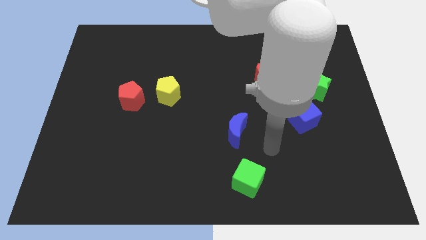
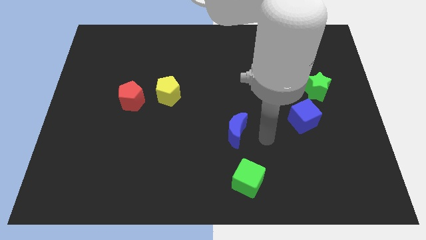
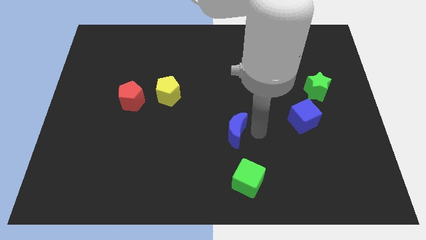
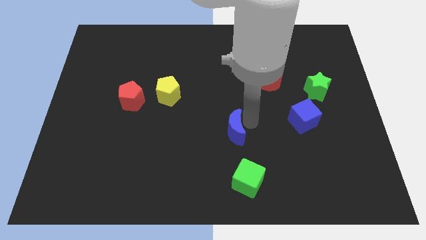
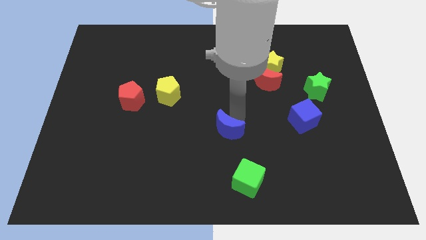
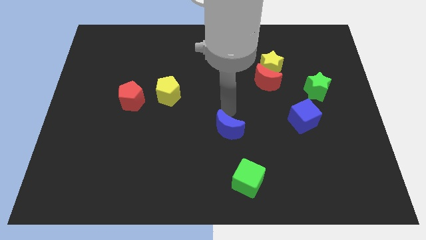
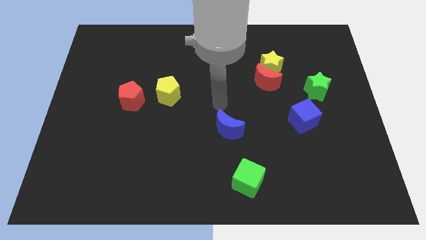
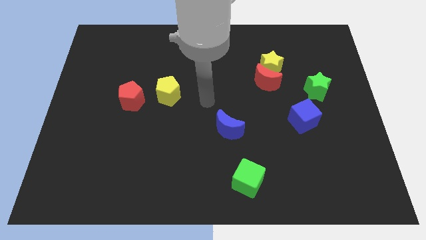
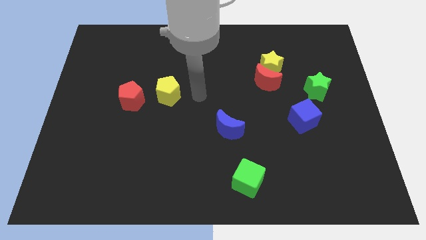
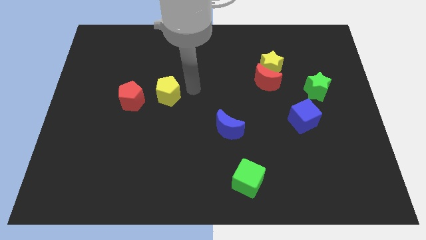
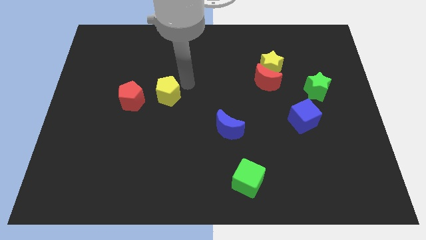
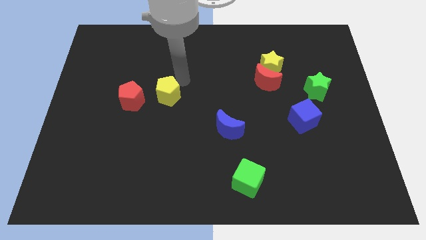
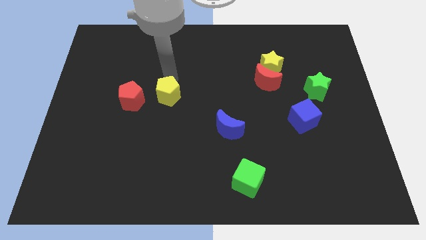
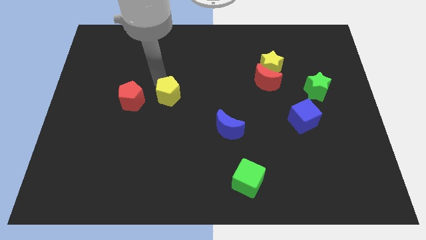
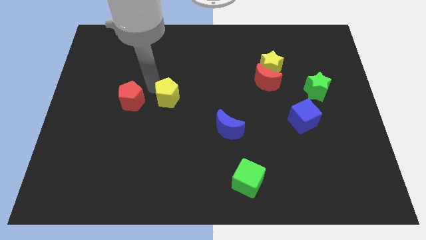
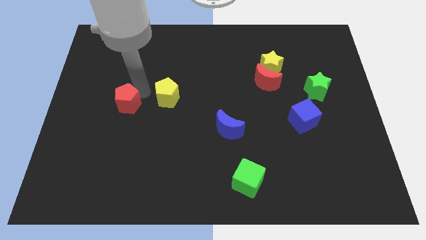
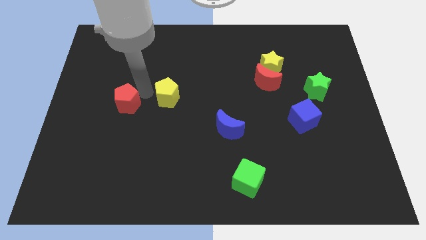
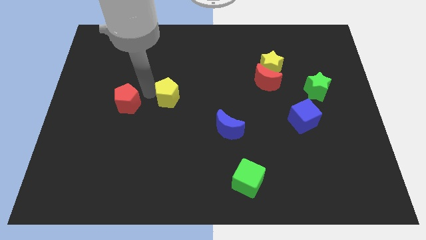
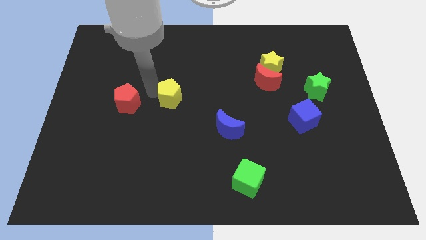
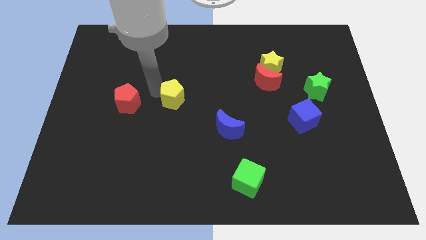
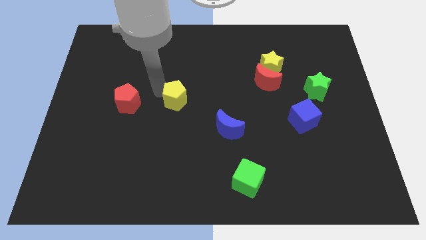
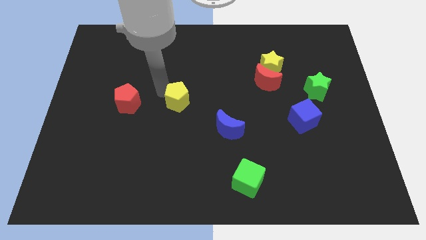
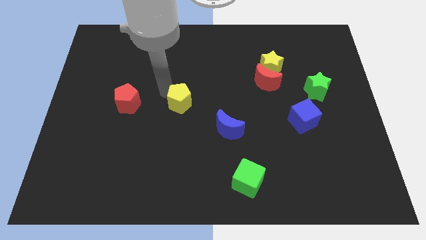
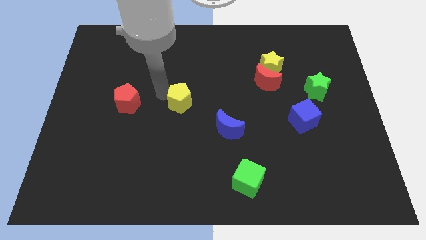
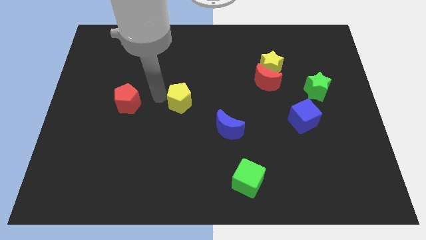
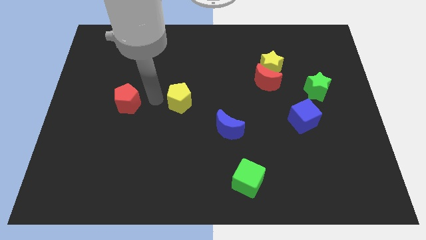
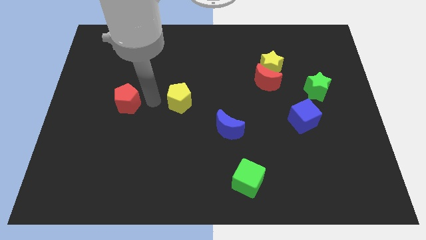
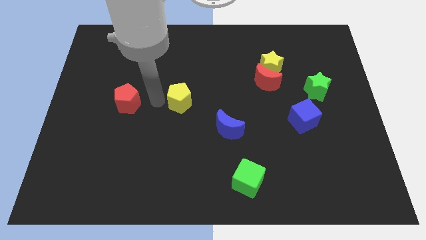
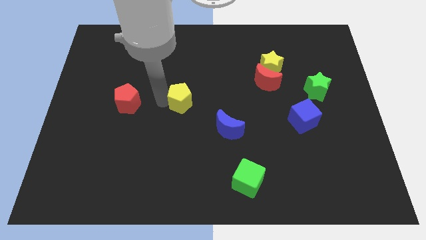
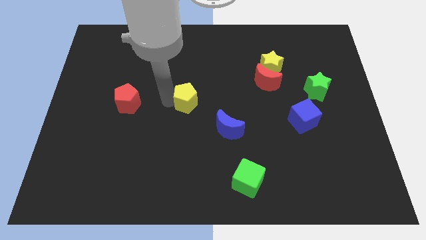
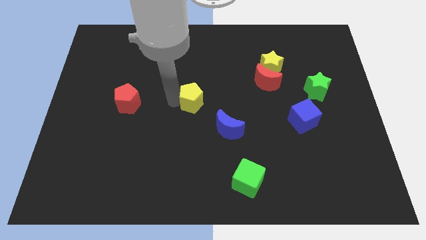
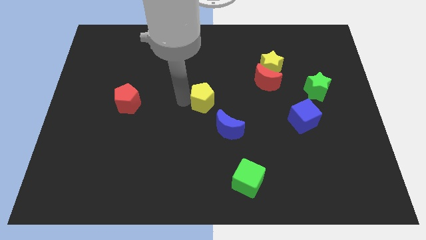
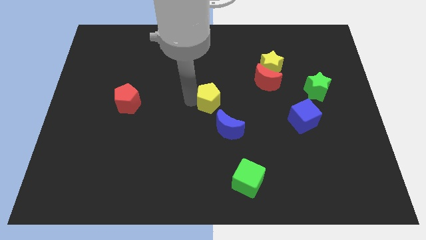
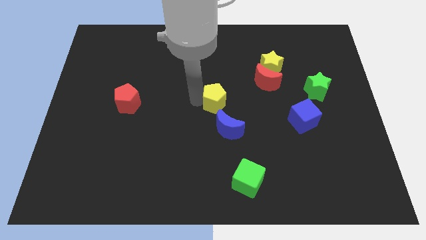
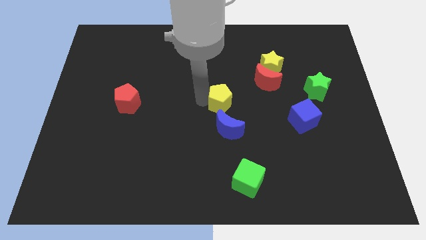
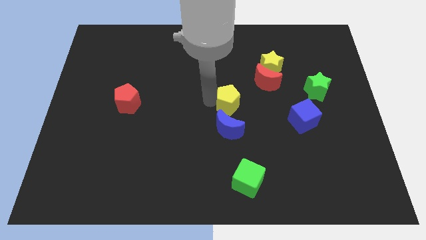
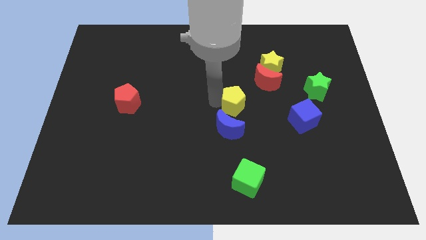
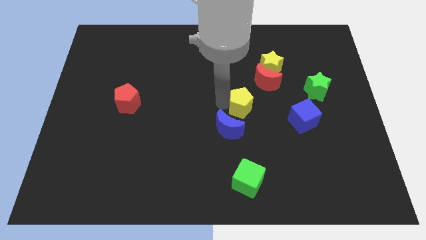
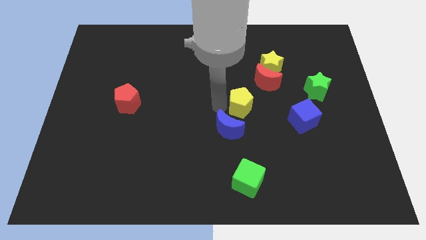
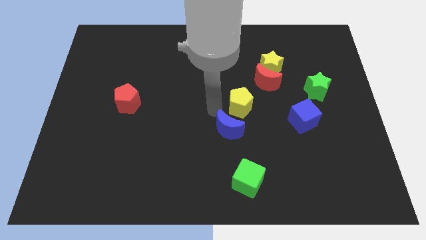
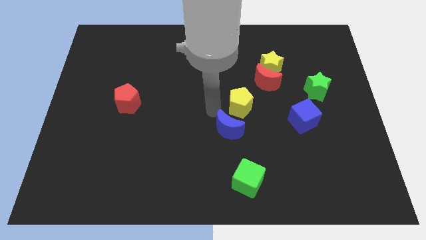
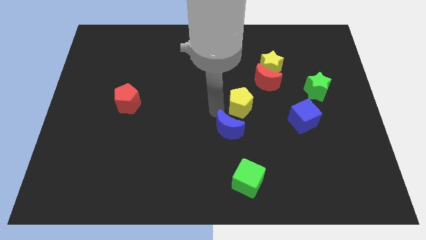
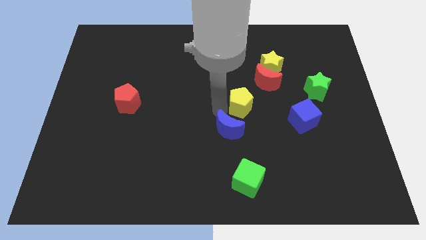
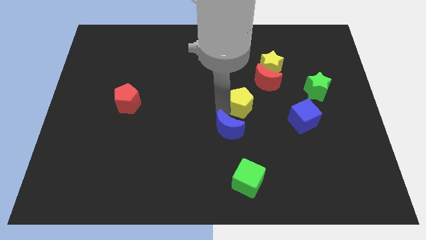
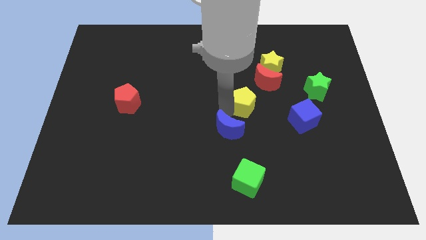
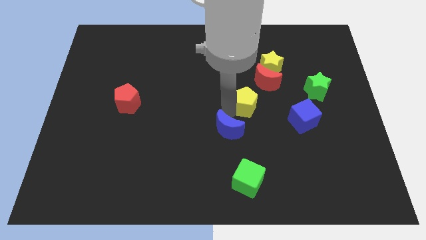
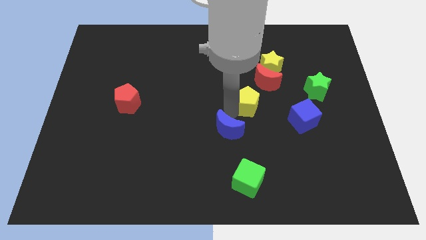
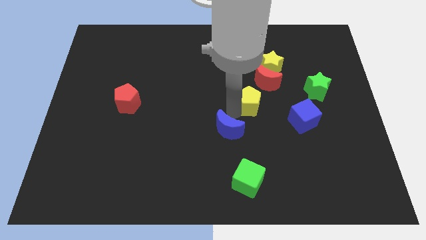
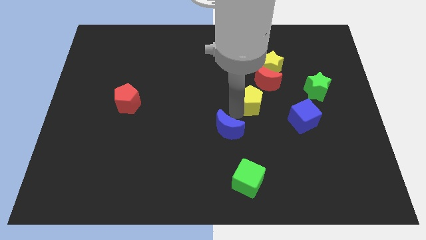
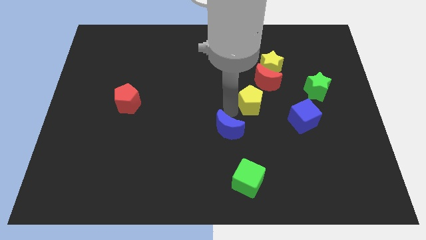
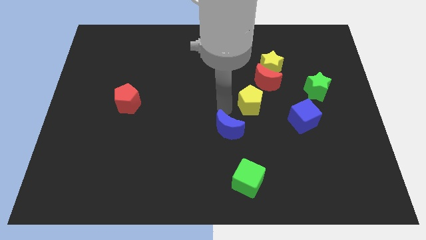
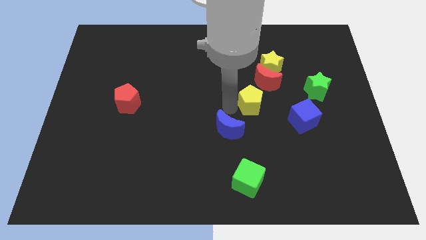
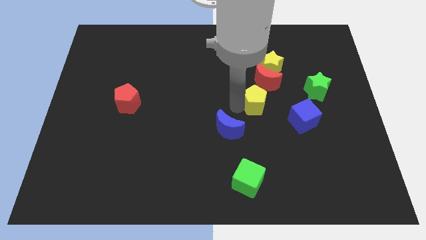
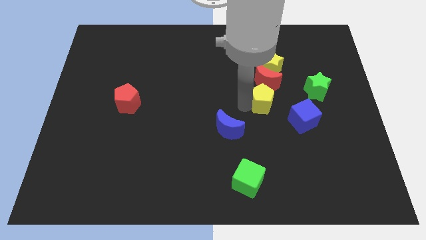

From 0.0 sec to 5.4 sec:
move the yellow pentagon to the bottom side of the yellow star
